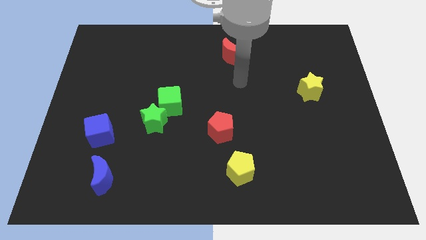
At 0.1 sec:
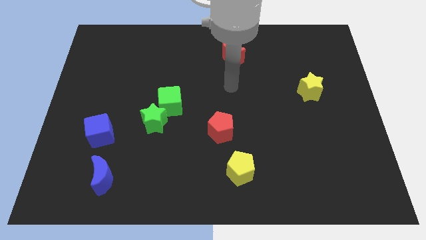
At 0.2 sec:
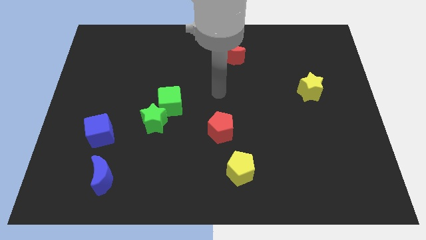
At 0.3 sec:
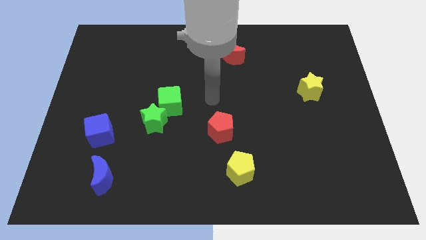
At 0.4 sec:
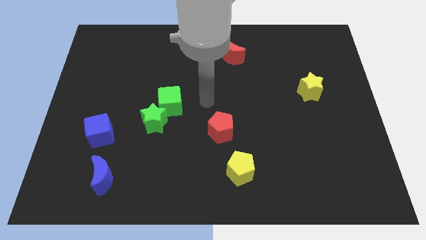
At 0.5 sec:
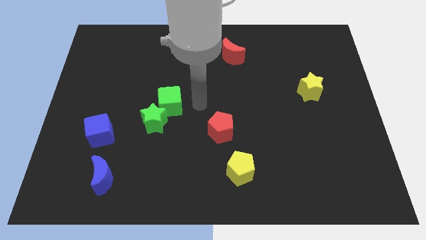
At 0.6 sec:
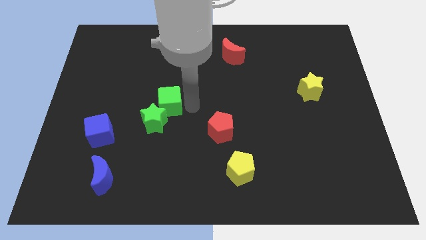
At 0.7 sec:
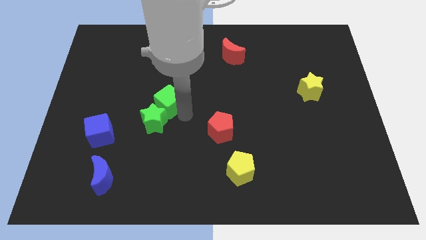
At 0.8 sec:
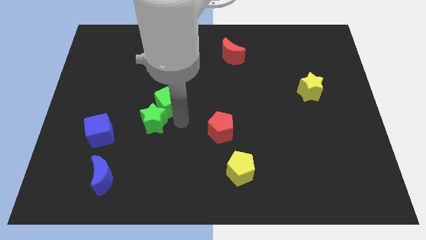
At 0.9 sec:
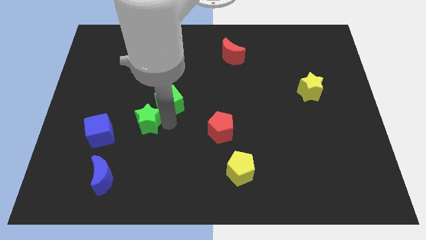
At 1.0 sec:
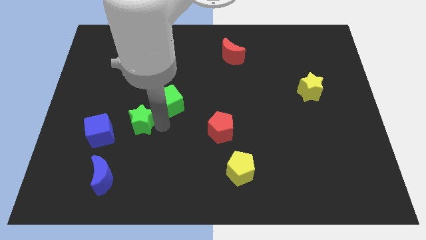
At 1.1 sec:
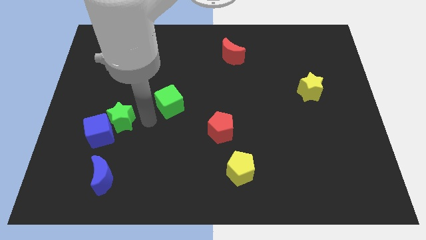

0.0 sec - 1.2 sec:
pull the green cube apart from the green star

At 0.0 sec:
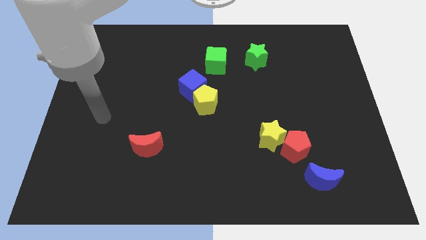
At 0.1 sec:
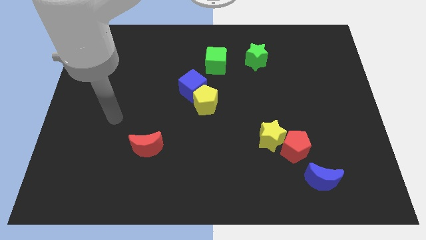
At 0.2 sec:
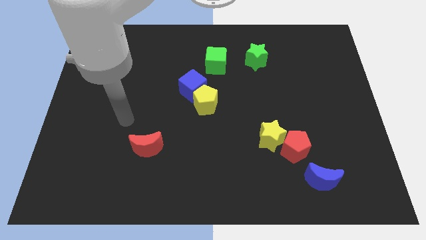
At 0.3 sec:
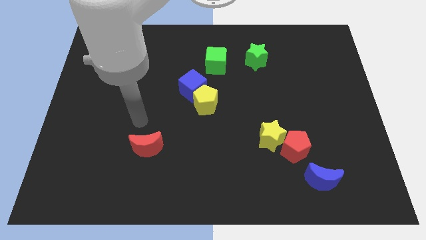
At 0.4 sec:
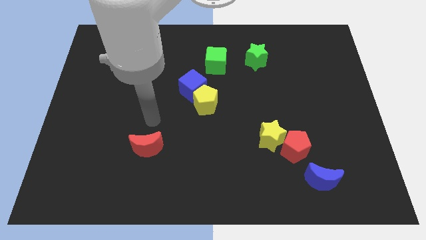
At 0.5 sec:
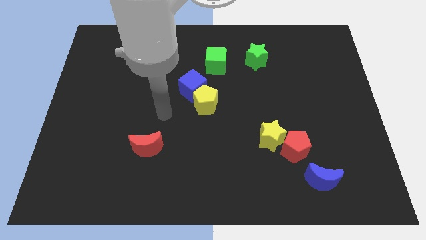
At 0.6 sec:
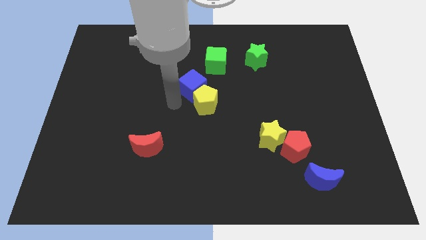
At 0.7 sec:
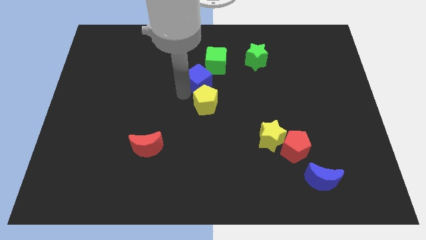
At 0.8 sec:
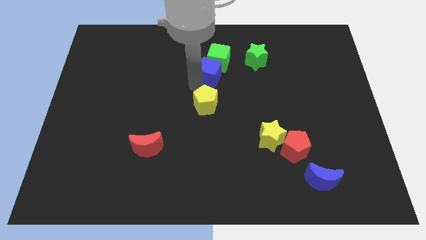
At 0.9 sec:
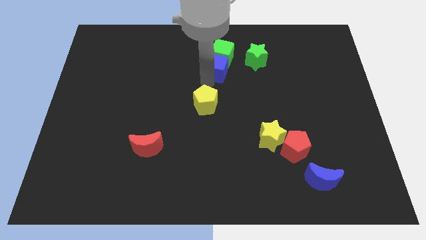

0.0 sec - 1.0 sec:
move the yellow pentagon away from the blue cube

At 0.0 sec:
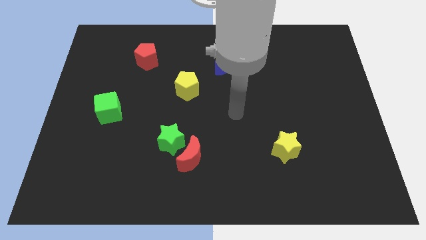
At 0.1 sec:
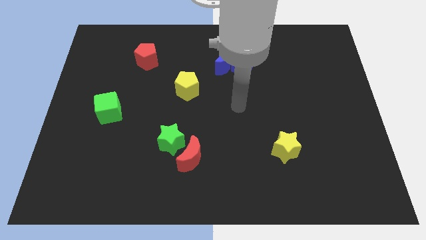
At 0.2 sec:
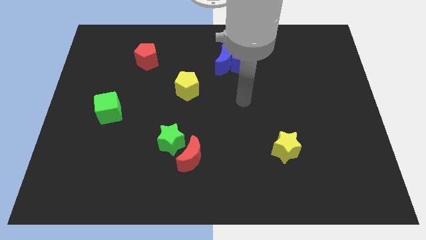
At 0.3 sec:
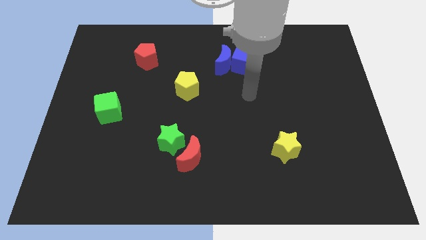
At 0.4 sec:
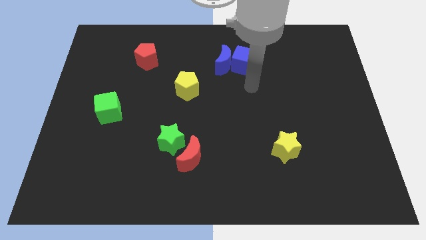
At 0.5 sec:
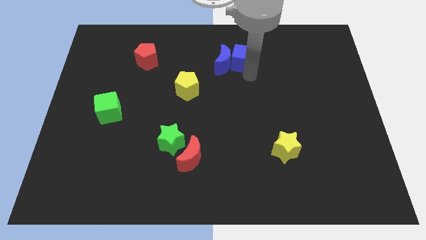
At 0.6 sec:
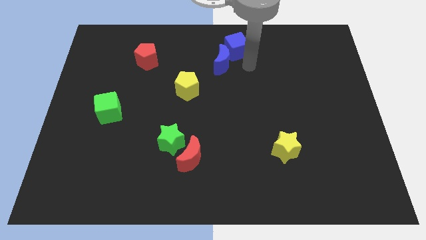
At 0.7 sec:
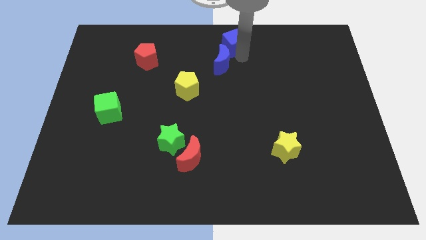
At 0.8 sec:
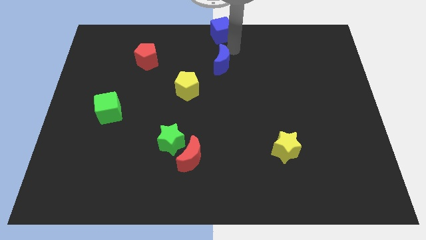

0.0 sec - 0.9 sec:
move the blue moon away from the blue cube

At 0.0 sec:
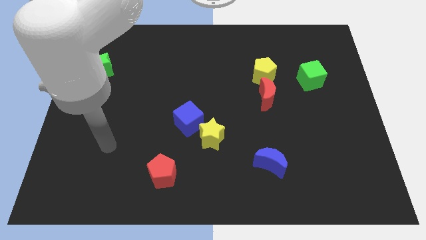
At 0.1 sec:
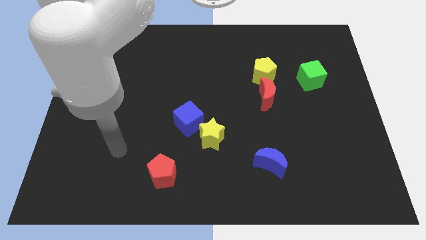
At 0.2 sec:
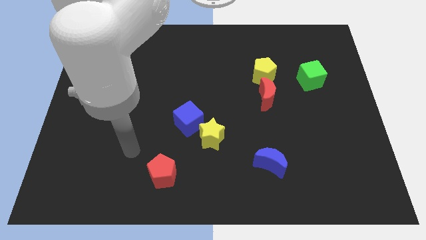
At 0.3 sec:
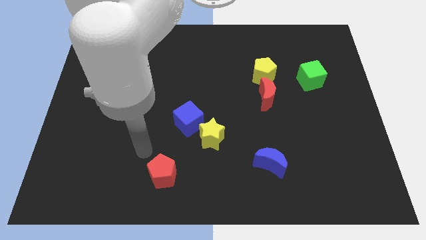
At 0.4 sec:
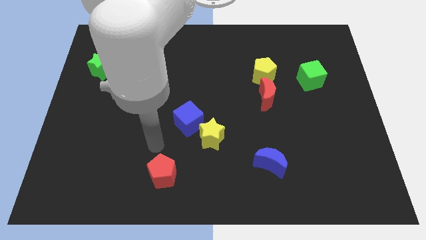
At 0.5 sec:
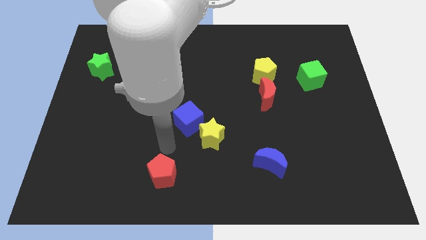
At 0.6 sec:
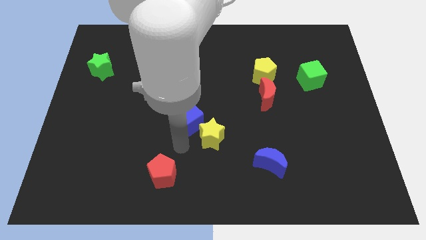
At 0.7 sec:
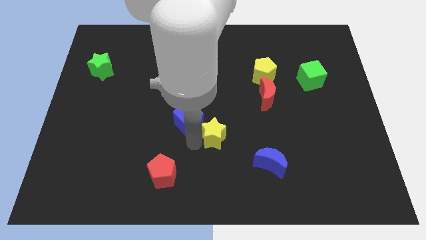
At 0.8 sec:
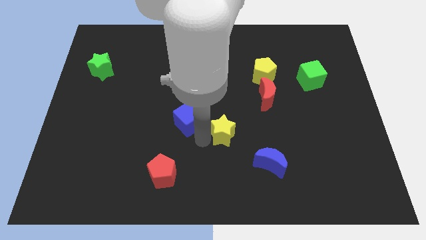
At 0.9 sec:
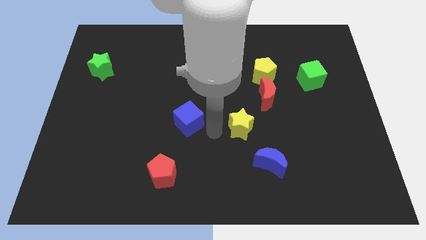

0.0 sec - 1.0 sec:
pull the blue cube apart from the yellow star

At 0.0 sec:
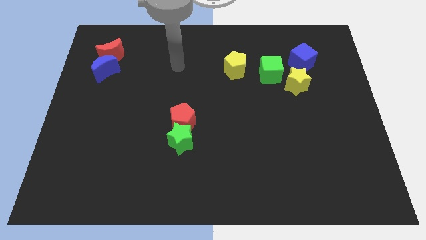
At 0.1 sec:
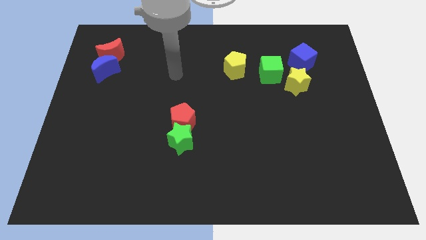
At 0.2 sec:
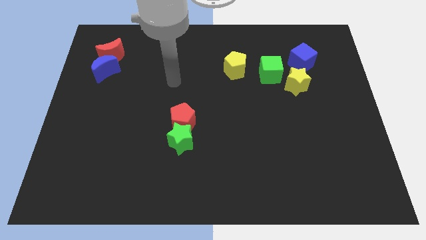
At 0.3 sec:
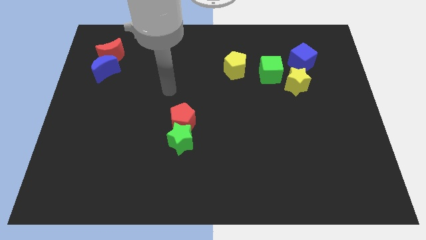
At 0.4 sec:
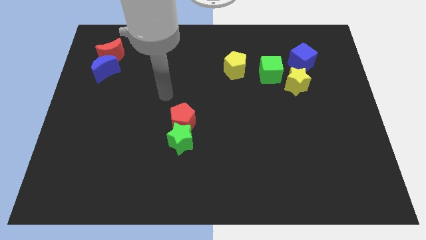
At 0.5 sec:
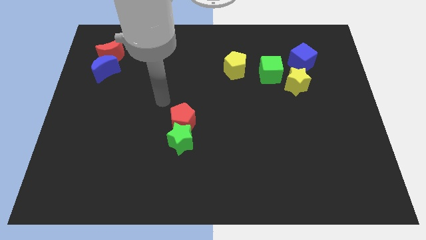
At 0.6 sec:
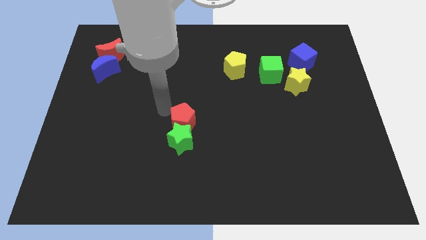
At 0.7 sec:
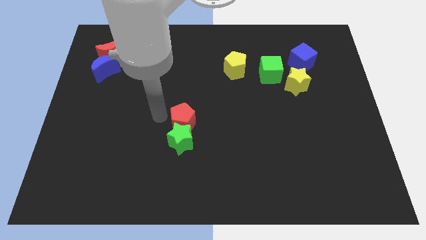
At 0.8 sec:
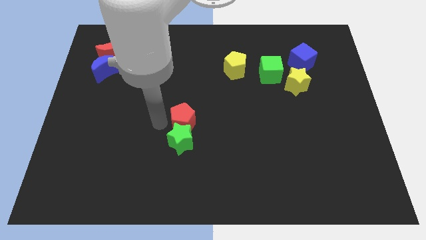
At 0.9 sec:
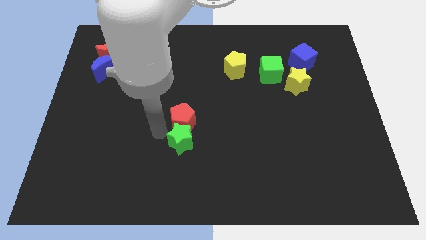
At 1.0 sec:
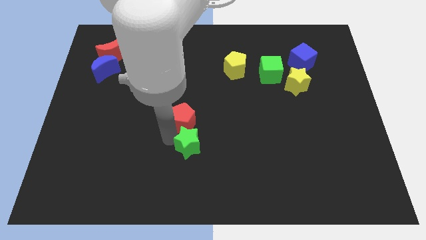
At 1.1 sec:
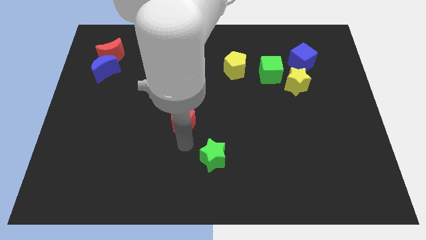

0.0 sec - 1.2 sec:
pull the red pentagon apart from the green star

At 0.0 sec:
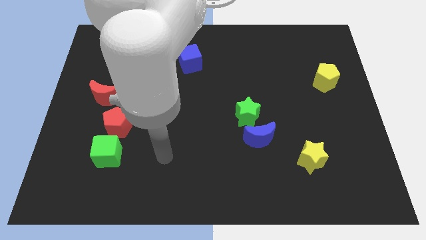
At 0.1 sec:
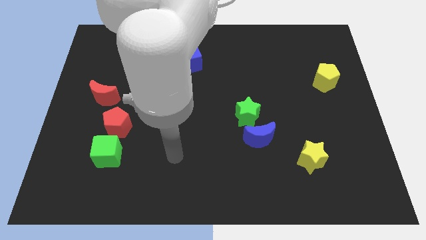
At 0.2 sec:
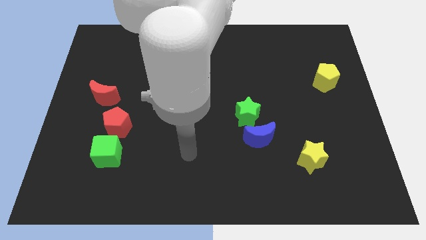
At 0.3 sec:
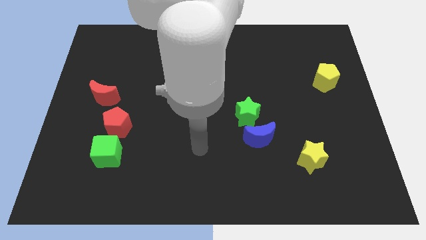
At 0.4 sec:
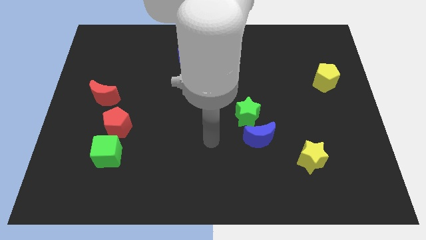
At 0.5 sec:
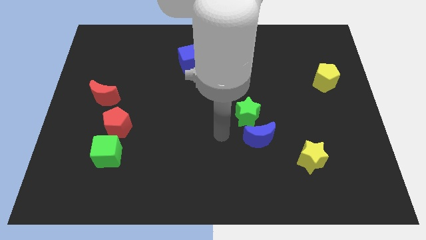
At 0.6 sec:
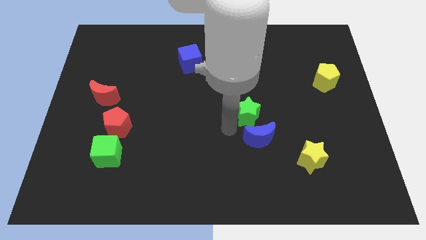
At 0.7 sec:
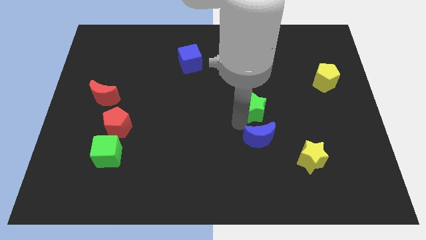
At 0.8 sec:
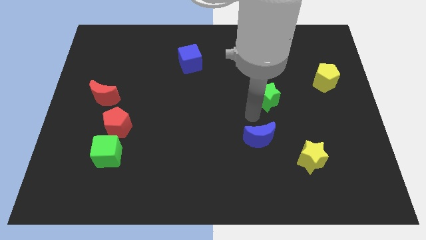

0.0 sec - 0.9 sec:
separate the blue moon from the green star

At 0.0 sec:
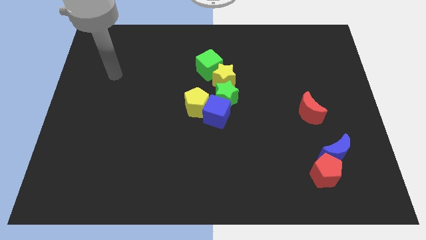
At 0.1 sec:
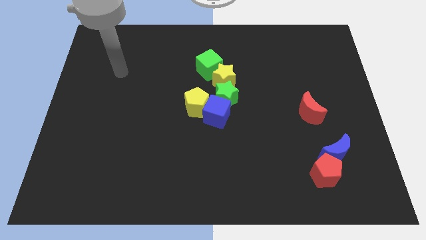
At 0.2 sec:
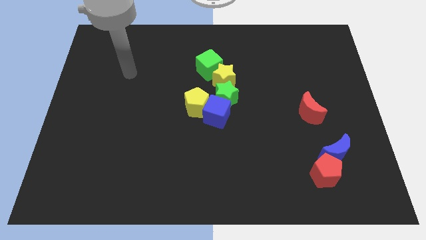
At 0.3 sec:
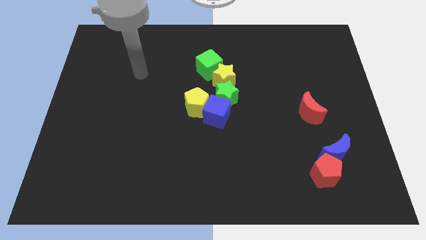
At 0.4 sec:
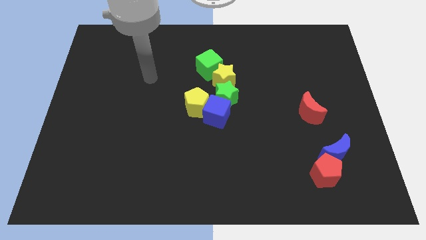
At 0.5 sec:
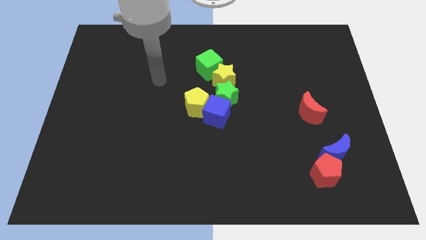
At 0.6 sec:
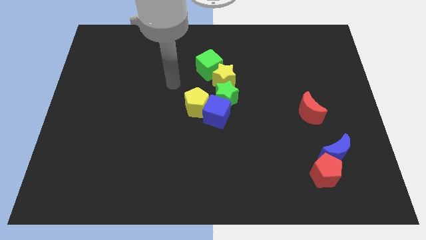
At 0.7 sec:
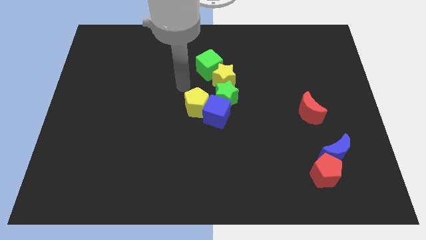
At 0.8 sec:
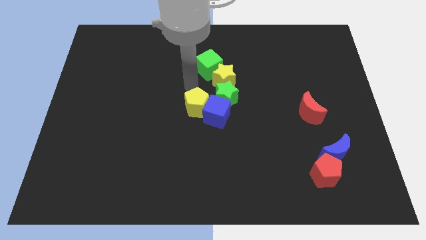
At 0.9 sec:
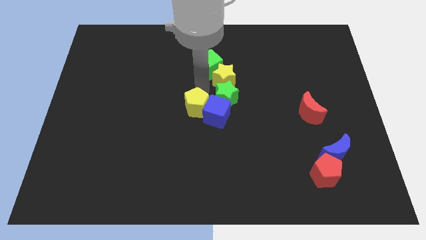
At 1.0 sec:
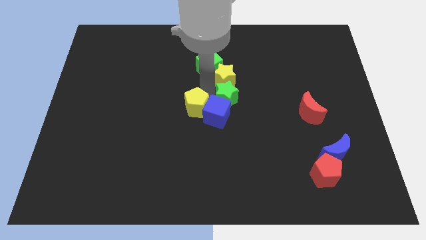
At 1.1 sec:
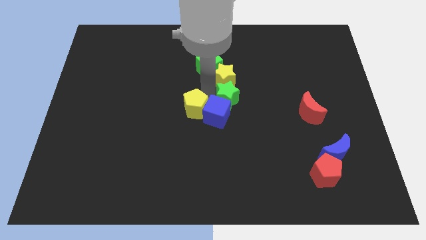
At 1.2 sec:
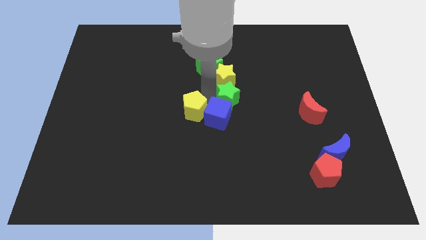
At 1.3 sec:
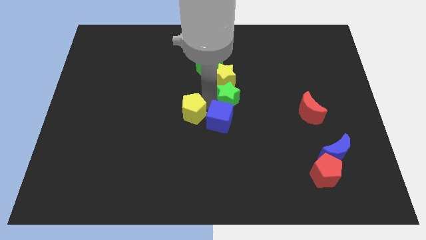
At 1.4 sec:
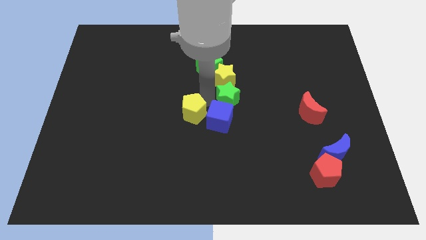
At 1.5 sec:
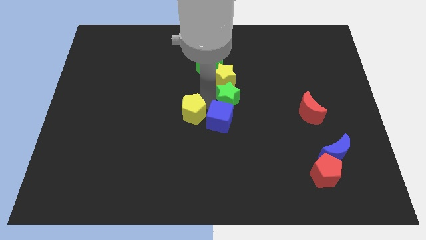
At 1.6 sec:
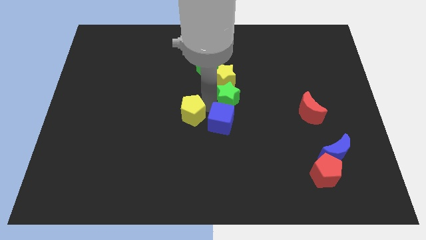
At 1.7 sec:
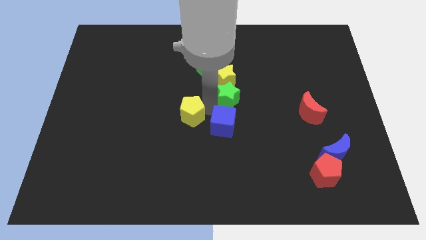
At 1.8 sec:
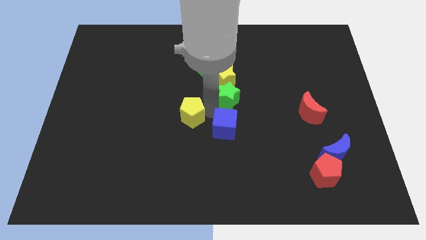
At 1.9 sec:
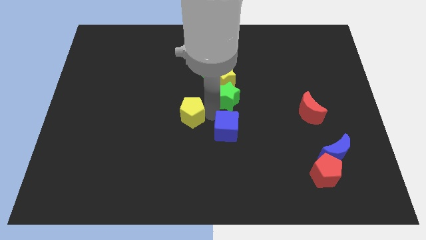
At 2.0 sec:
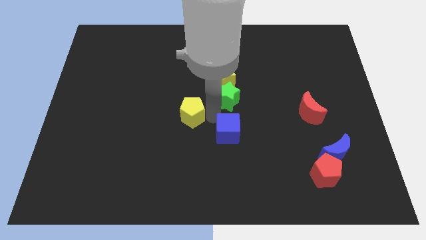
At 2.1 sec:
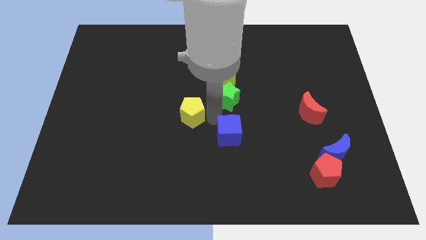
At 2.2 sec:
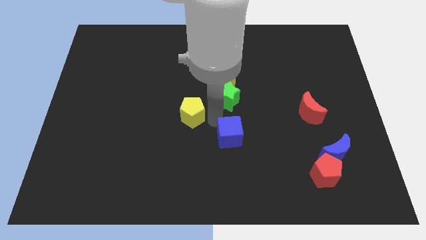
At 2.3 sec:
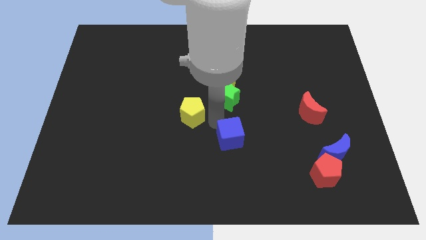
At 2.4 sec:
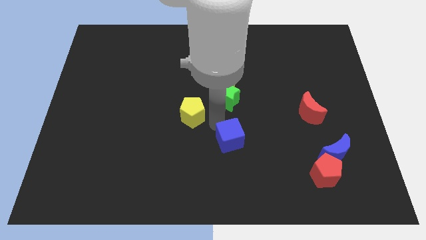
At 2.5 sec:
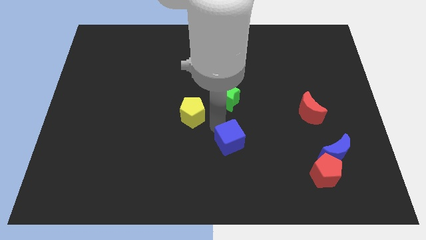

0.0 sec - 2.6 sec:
pull the blue cube apart from the green star and yellow pentagon

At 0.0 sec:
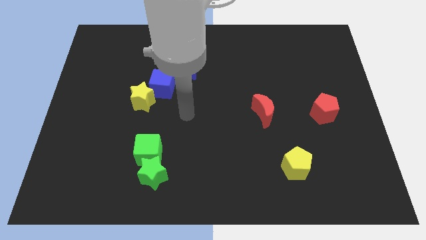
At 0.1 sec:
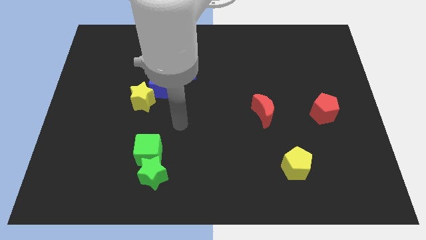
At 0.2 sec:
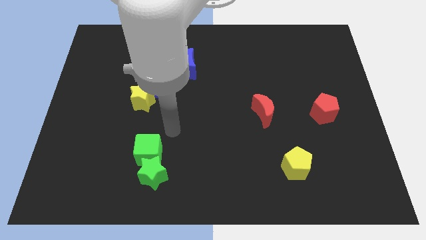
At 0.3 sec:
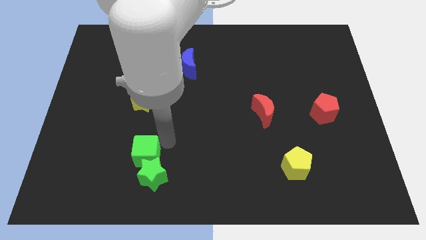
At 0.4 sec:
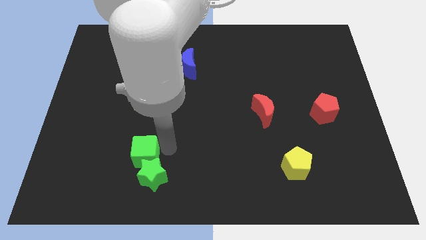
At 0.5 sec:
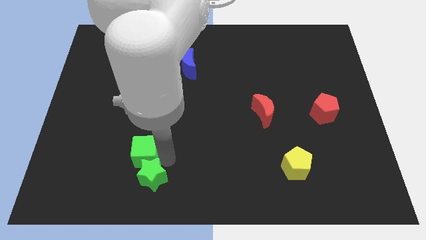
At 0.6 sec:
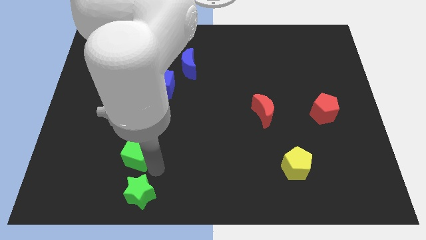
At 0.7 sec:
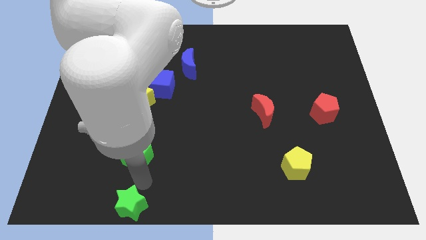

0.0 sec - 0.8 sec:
separate the green cube from the green star
